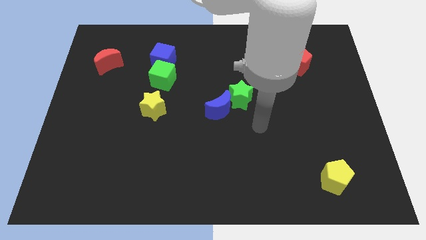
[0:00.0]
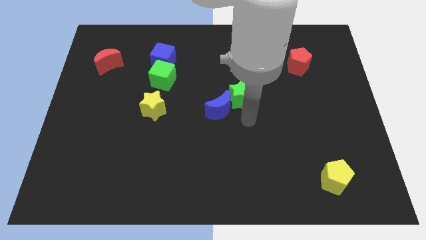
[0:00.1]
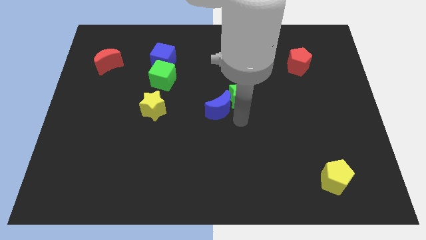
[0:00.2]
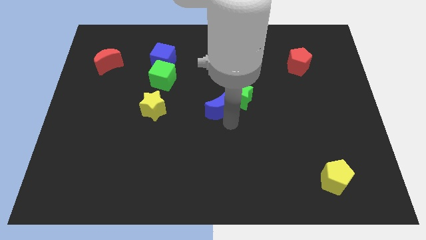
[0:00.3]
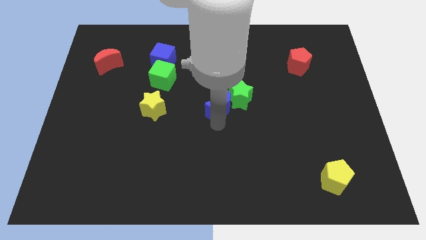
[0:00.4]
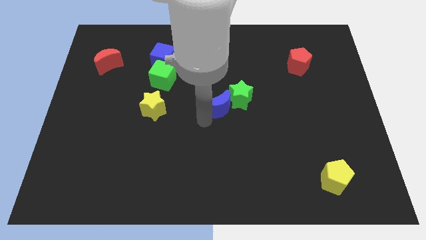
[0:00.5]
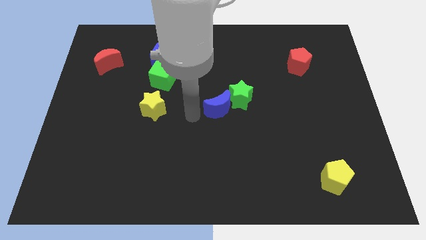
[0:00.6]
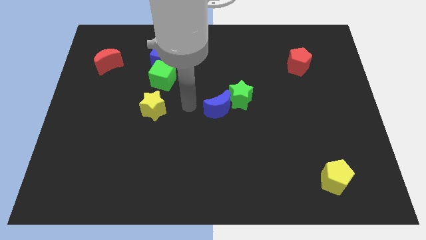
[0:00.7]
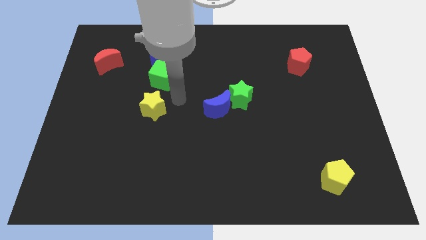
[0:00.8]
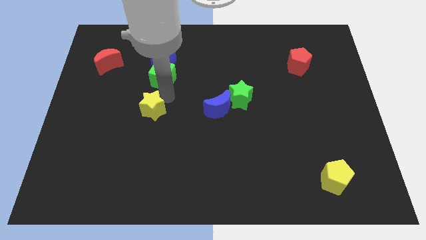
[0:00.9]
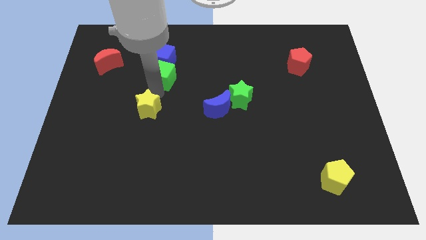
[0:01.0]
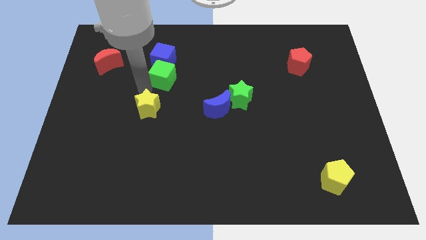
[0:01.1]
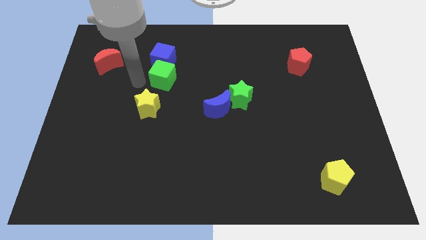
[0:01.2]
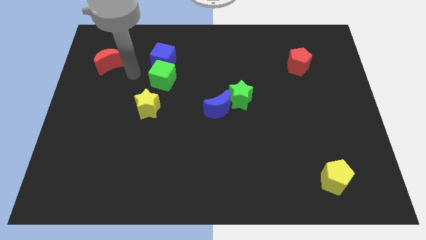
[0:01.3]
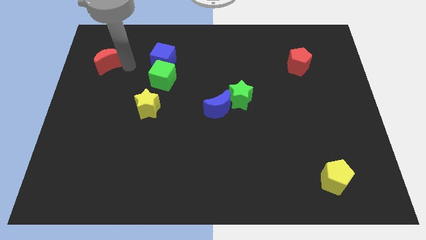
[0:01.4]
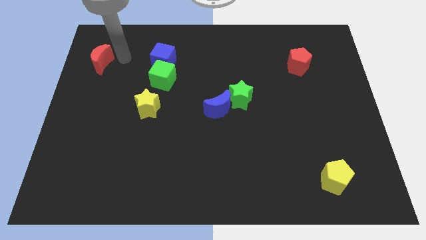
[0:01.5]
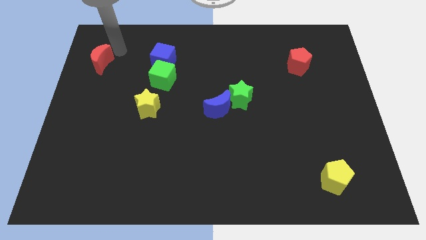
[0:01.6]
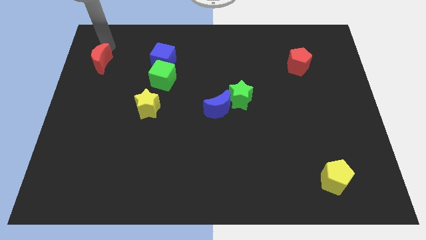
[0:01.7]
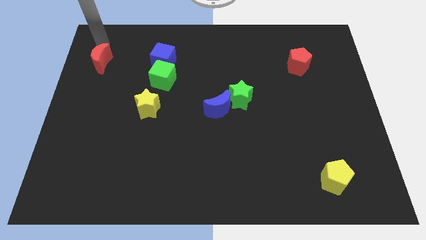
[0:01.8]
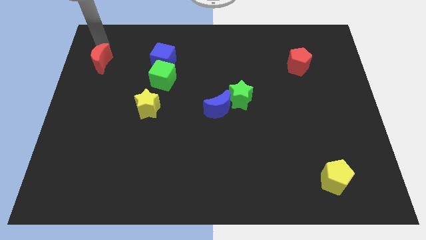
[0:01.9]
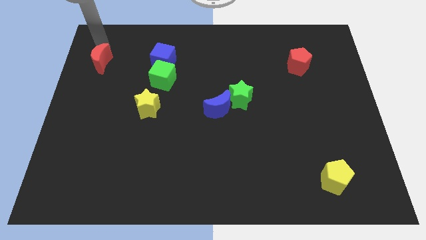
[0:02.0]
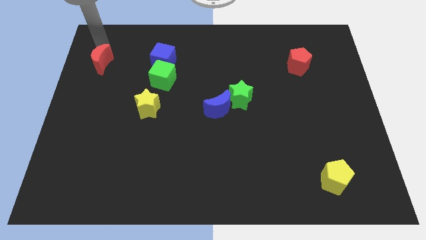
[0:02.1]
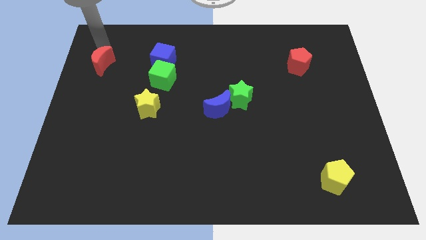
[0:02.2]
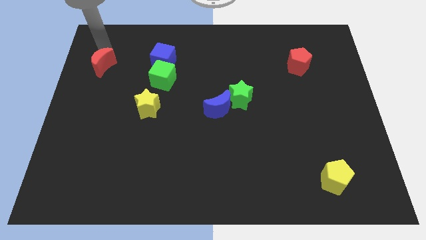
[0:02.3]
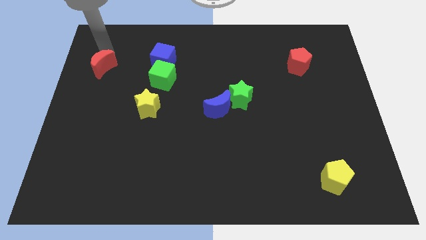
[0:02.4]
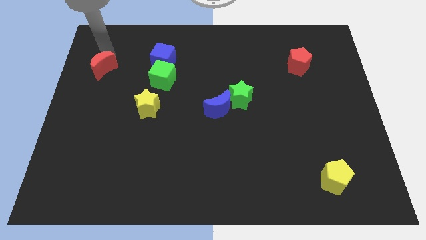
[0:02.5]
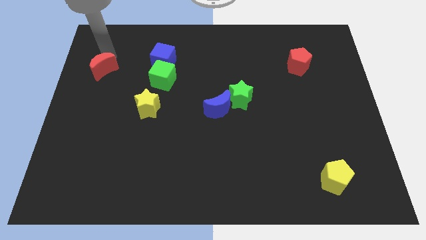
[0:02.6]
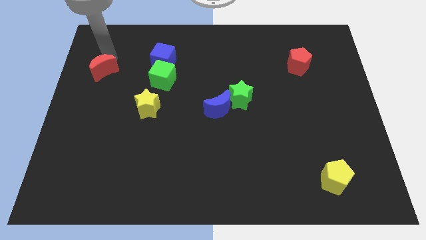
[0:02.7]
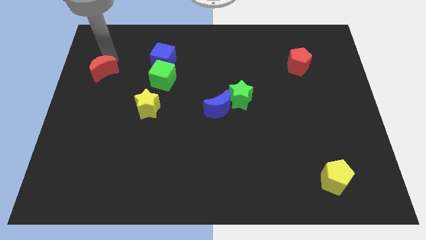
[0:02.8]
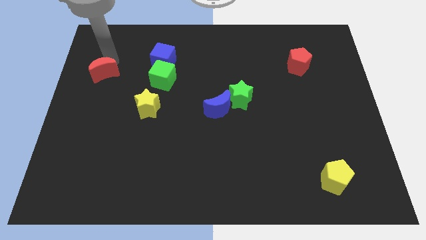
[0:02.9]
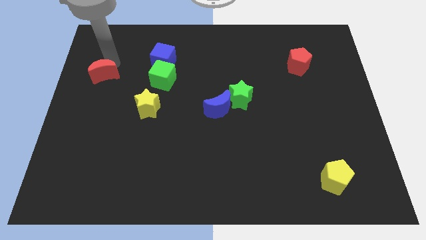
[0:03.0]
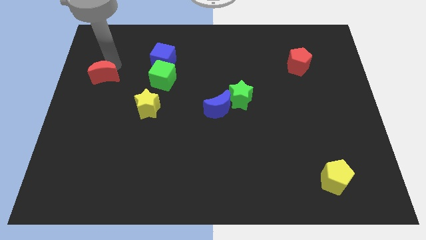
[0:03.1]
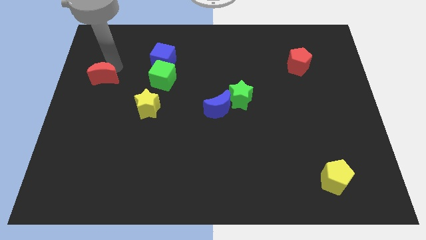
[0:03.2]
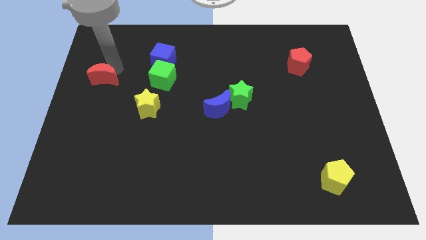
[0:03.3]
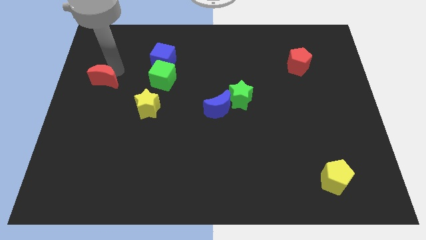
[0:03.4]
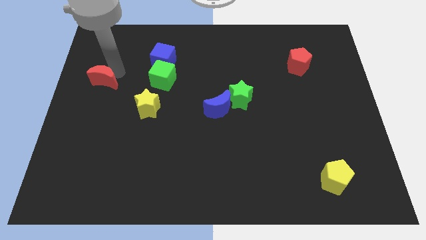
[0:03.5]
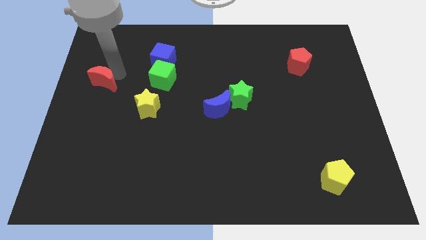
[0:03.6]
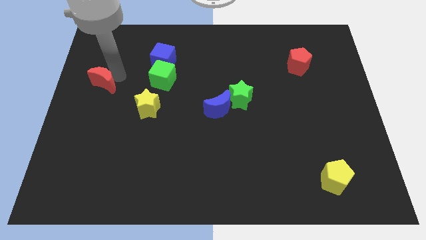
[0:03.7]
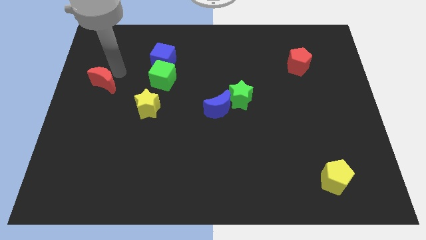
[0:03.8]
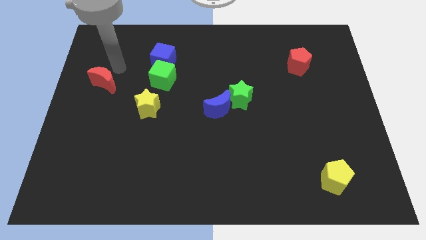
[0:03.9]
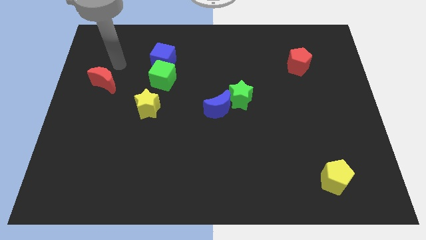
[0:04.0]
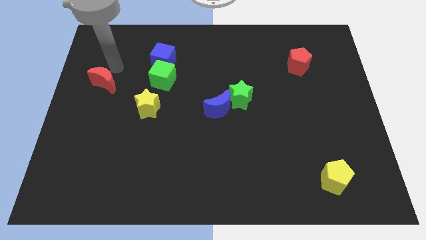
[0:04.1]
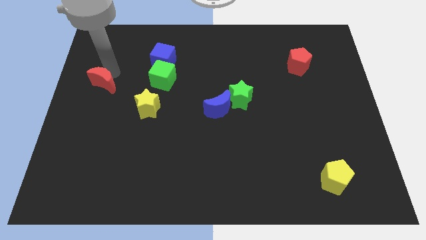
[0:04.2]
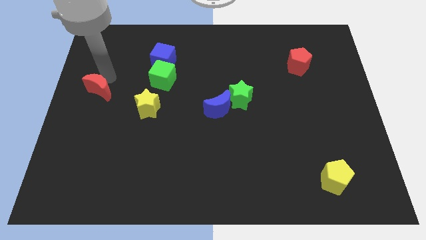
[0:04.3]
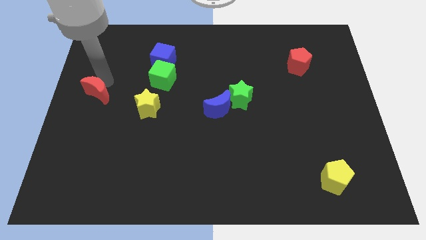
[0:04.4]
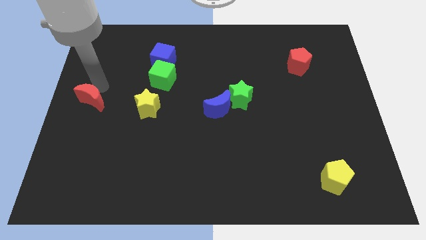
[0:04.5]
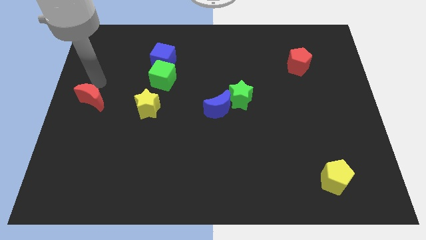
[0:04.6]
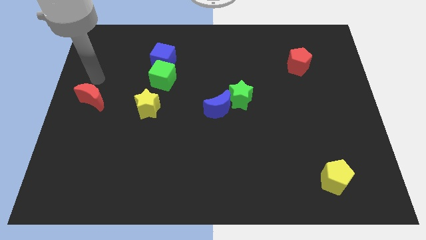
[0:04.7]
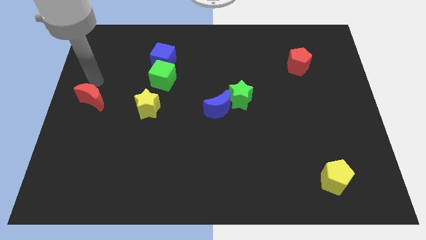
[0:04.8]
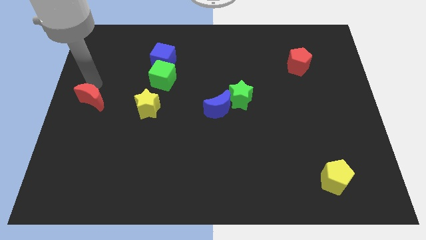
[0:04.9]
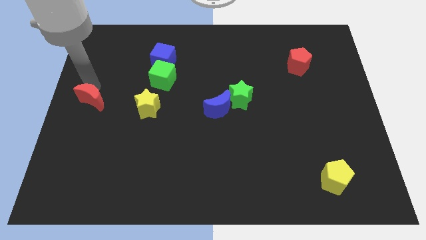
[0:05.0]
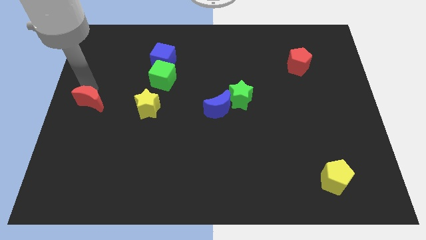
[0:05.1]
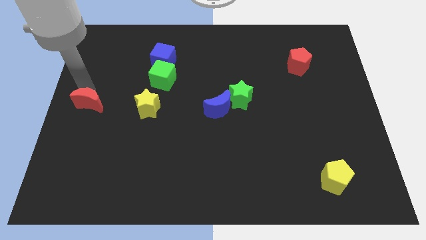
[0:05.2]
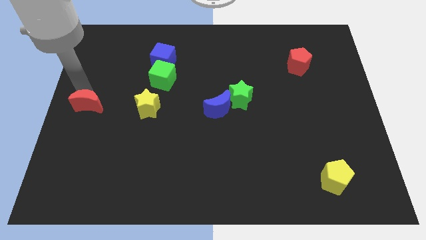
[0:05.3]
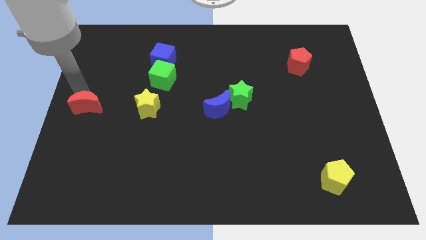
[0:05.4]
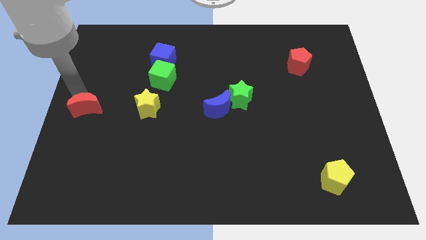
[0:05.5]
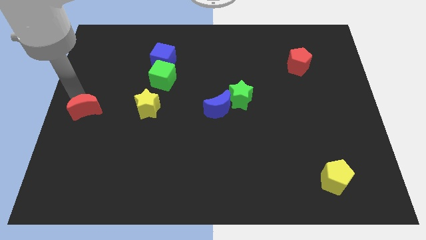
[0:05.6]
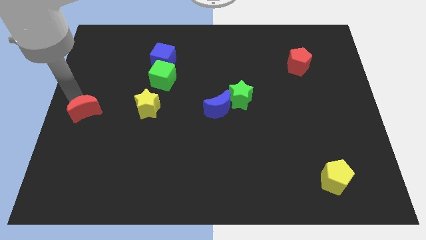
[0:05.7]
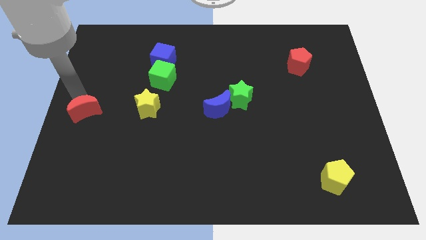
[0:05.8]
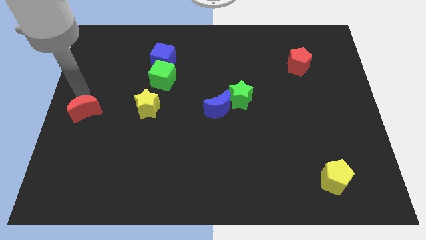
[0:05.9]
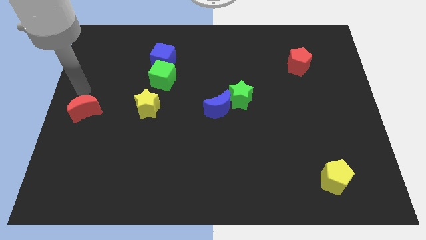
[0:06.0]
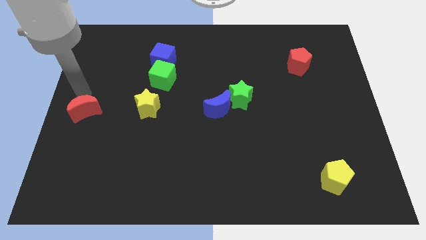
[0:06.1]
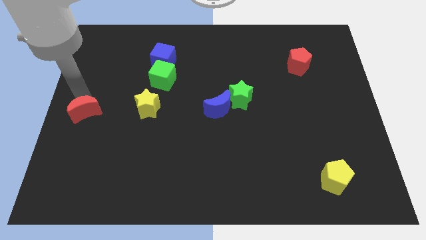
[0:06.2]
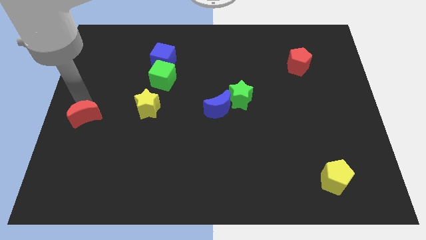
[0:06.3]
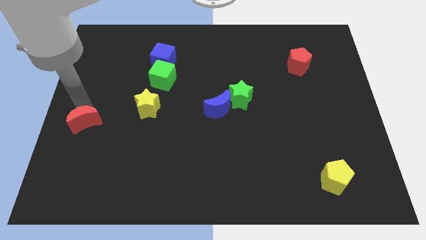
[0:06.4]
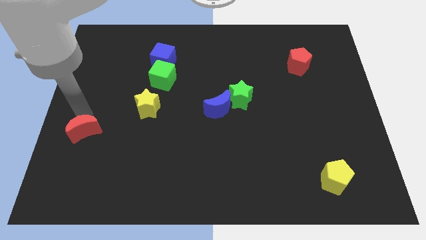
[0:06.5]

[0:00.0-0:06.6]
push the red moon downwards

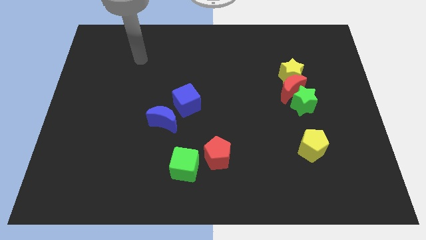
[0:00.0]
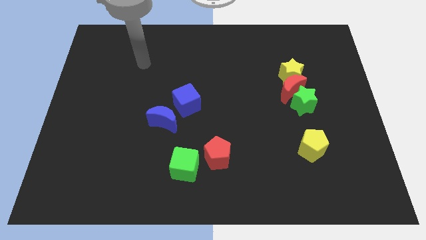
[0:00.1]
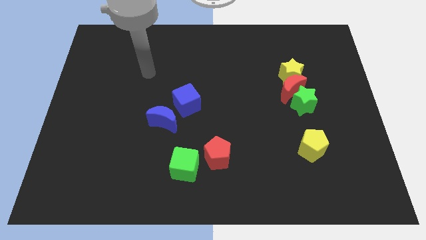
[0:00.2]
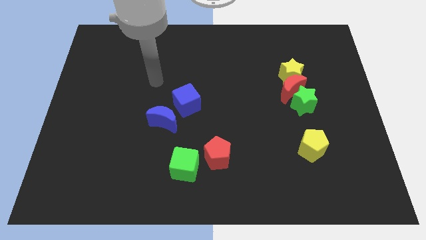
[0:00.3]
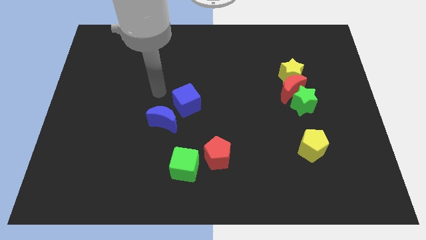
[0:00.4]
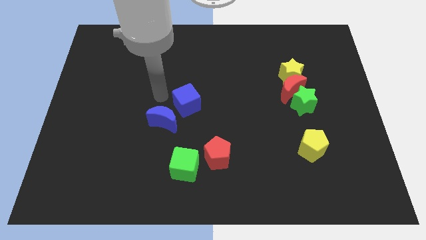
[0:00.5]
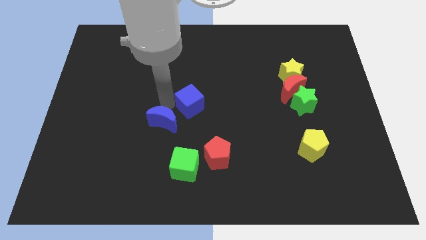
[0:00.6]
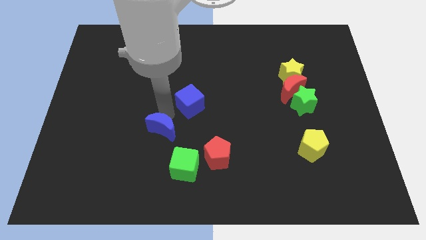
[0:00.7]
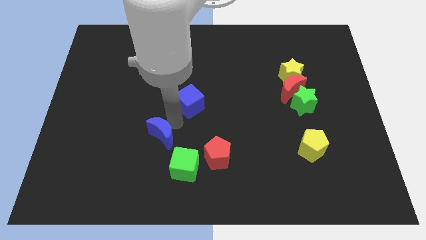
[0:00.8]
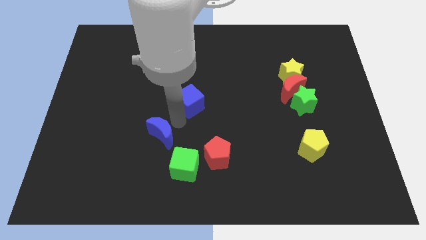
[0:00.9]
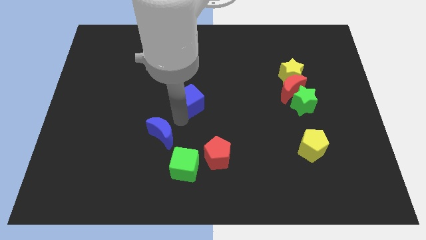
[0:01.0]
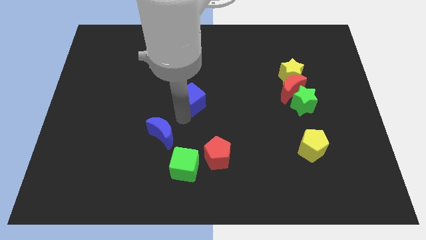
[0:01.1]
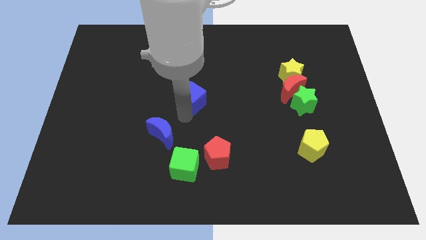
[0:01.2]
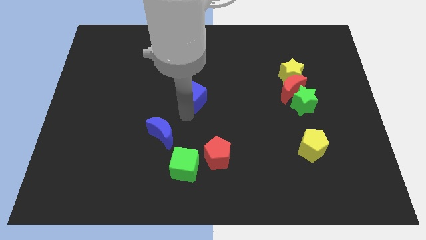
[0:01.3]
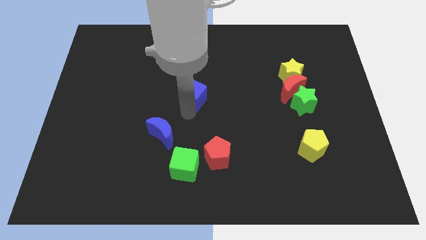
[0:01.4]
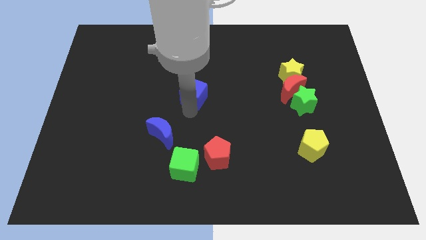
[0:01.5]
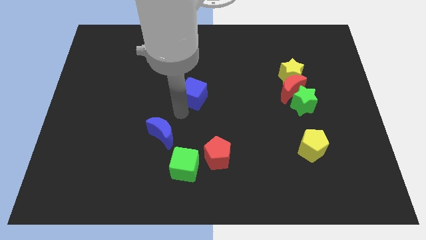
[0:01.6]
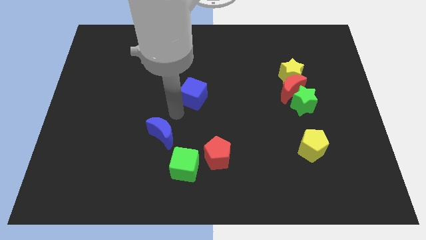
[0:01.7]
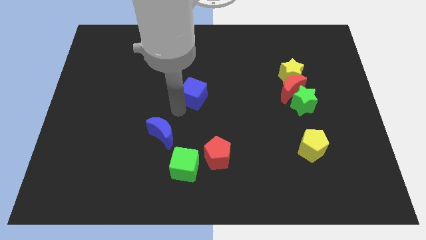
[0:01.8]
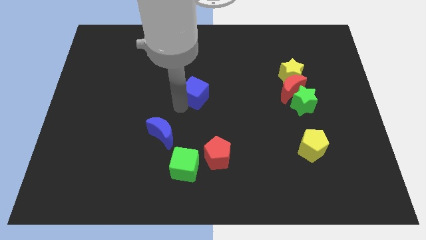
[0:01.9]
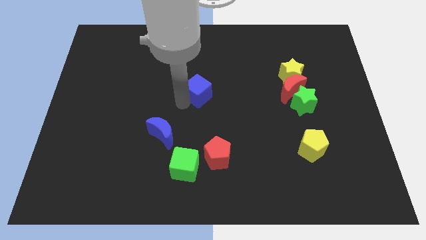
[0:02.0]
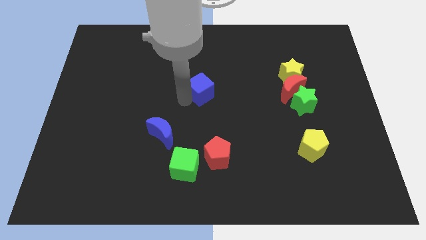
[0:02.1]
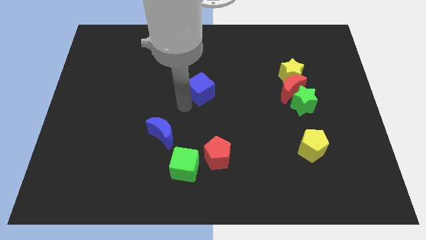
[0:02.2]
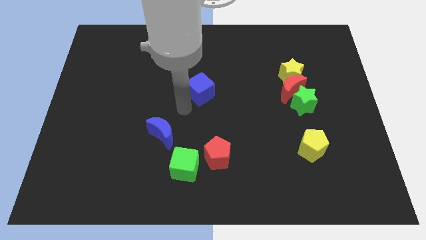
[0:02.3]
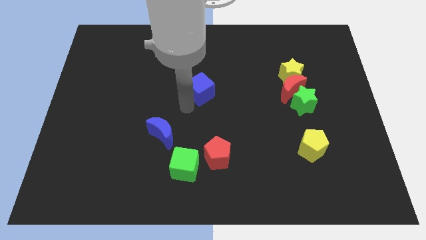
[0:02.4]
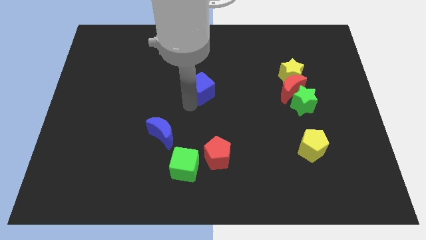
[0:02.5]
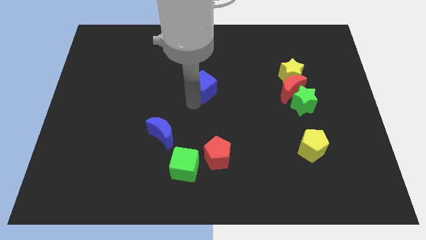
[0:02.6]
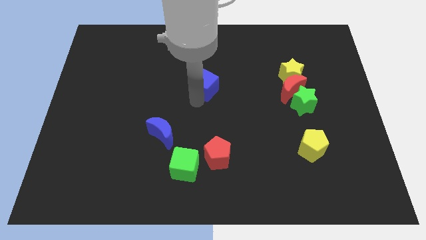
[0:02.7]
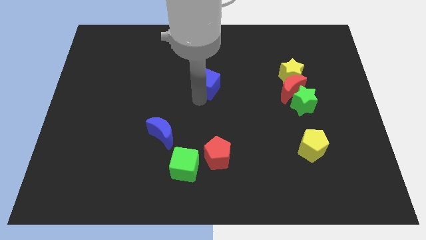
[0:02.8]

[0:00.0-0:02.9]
move the blue cube somewhat diagonally upwards and right
